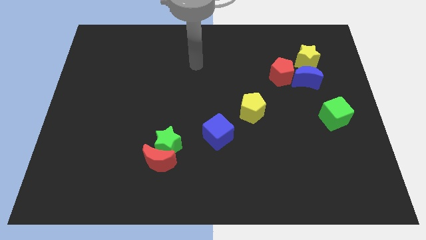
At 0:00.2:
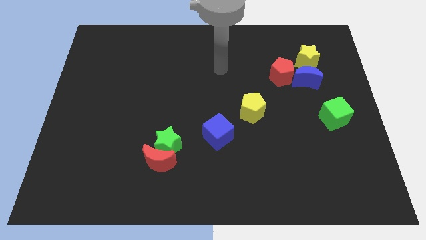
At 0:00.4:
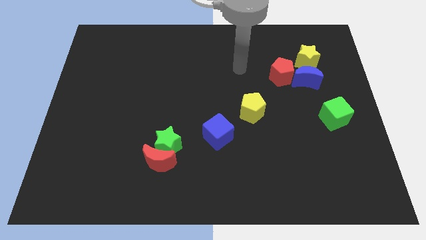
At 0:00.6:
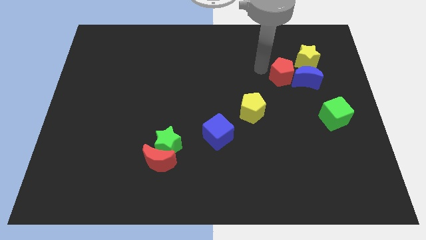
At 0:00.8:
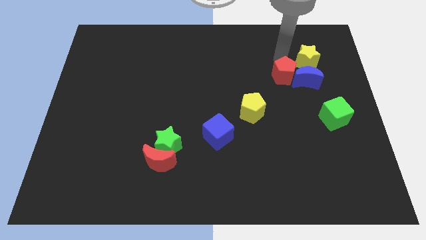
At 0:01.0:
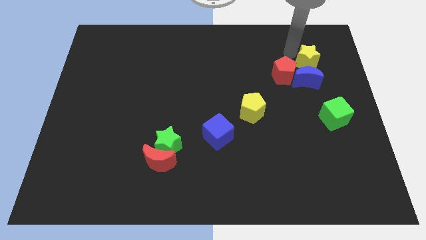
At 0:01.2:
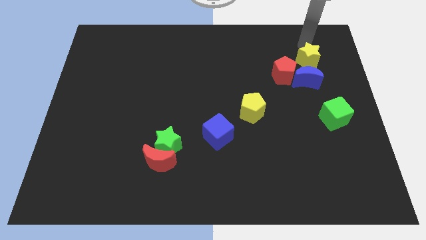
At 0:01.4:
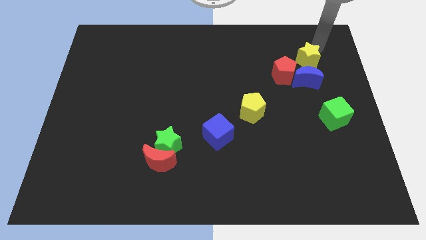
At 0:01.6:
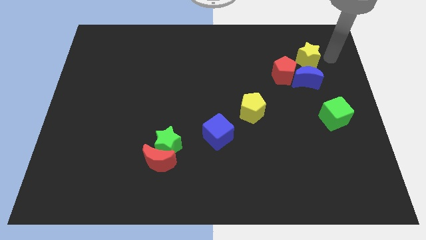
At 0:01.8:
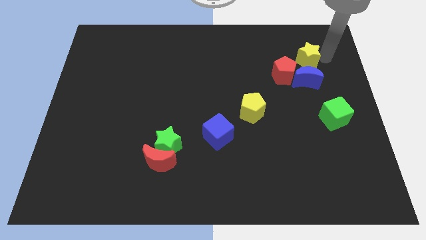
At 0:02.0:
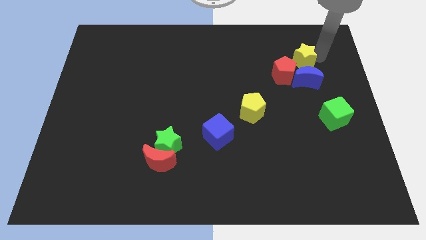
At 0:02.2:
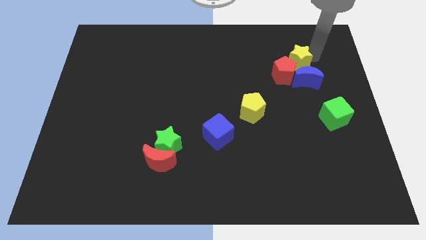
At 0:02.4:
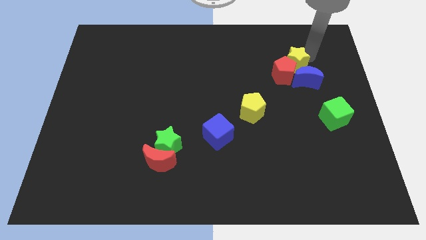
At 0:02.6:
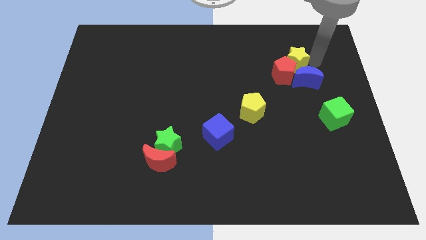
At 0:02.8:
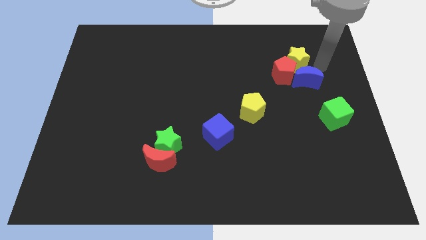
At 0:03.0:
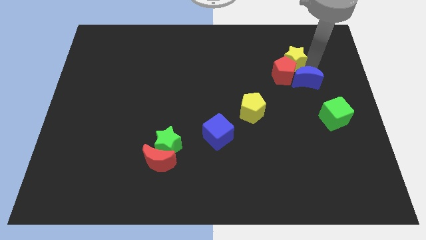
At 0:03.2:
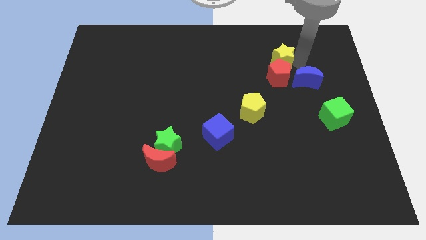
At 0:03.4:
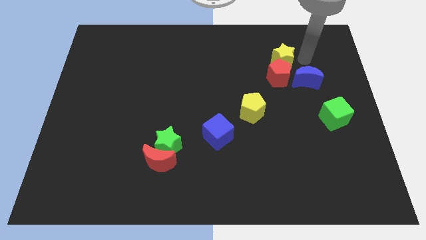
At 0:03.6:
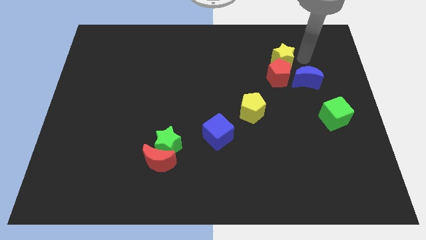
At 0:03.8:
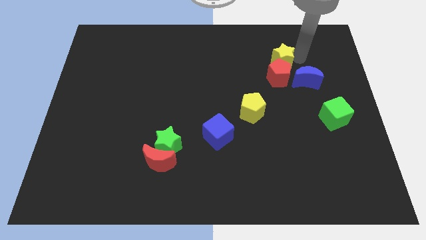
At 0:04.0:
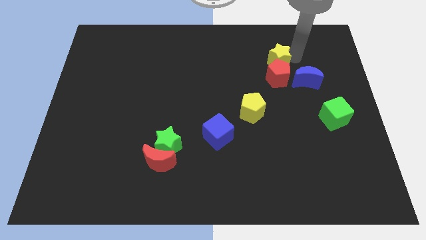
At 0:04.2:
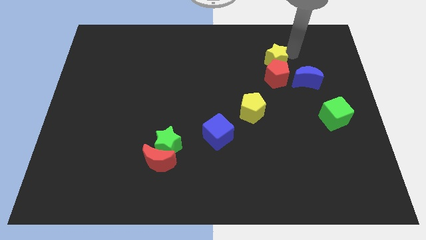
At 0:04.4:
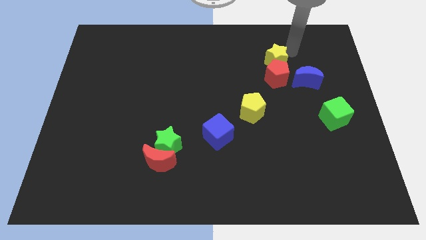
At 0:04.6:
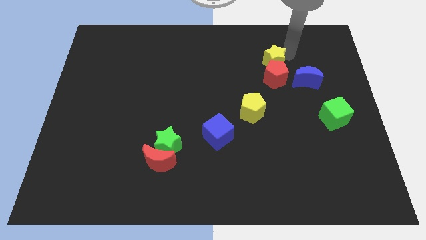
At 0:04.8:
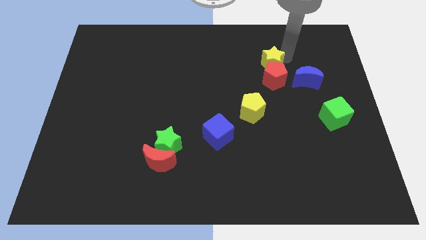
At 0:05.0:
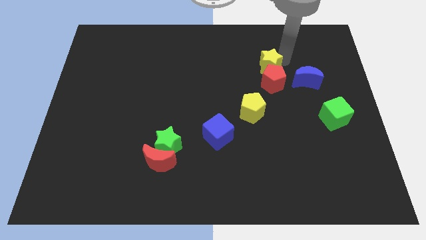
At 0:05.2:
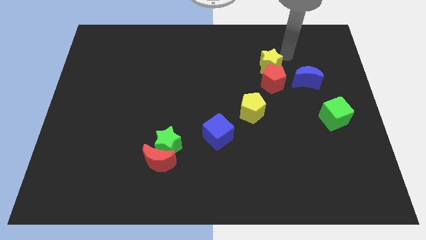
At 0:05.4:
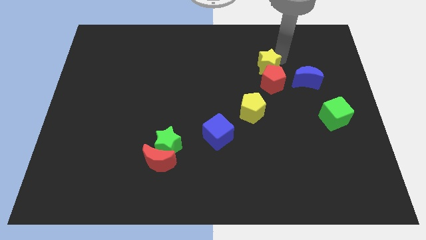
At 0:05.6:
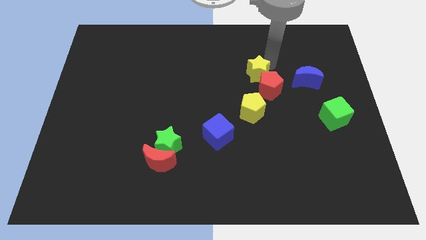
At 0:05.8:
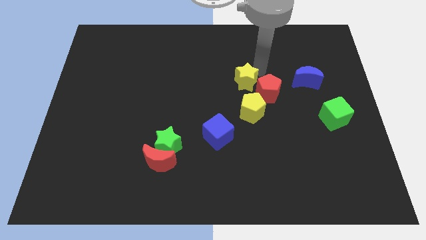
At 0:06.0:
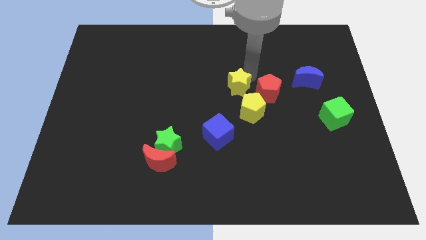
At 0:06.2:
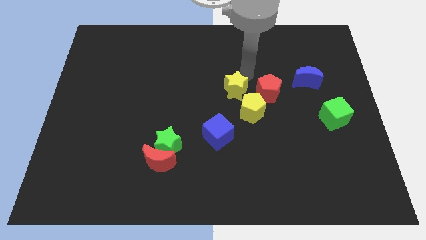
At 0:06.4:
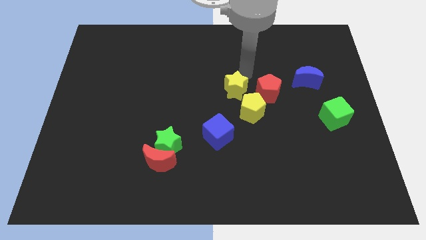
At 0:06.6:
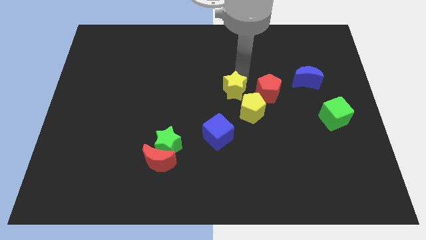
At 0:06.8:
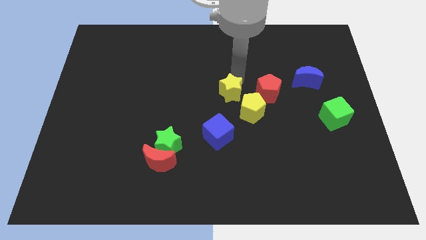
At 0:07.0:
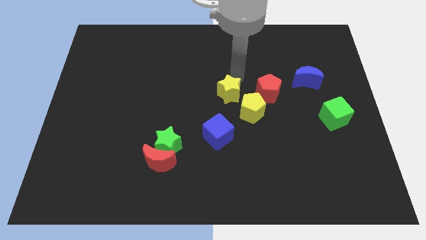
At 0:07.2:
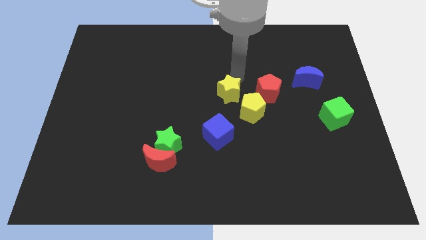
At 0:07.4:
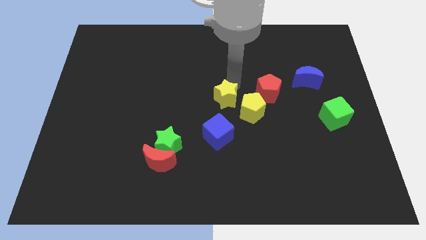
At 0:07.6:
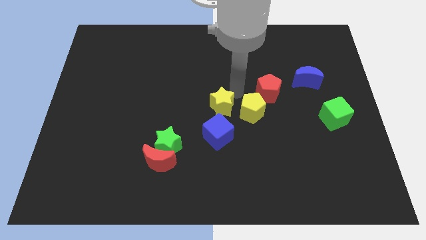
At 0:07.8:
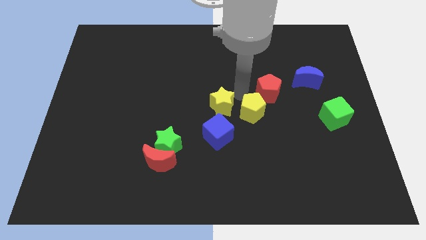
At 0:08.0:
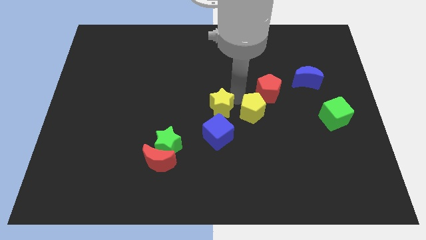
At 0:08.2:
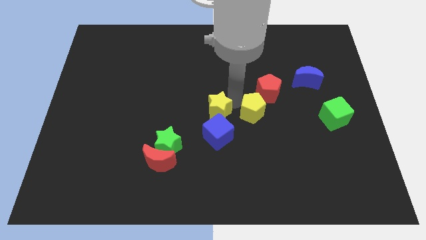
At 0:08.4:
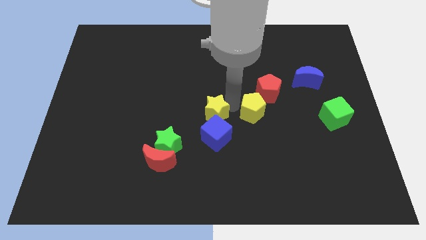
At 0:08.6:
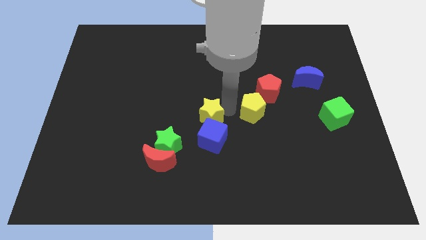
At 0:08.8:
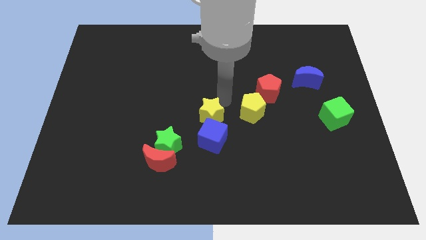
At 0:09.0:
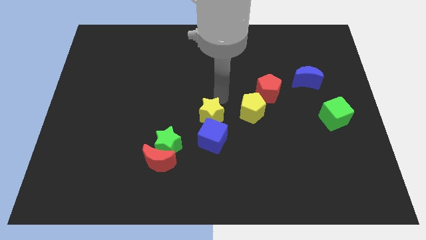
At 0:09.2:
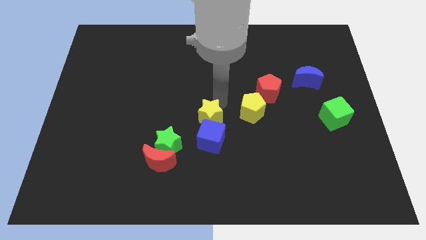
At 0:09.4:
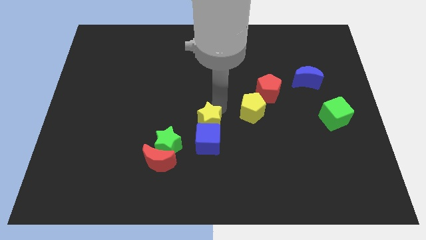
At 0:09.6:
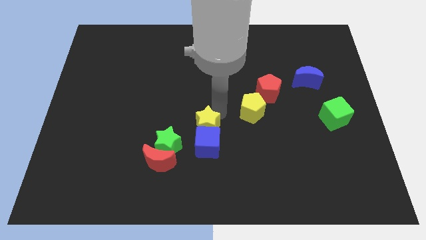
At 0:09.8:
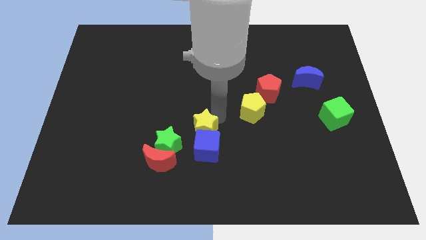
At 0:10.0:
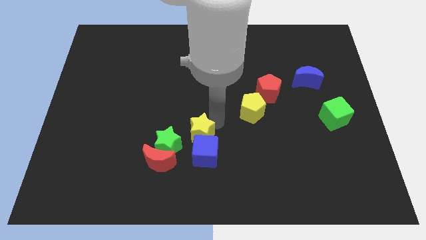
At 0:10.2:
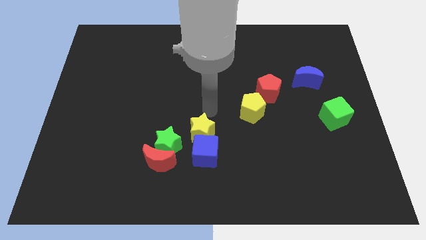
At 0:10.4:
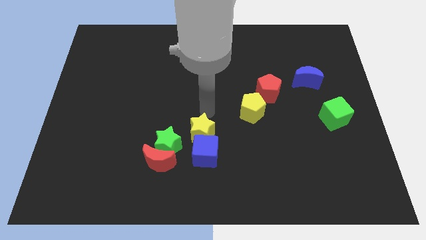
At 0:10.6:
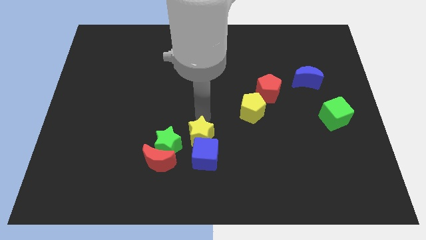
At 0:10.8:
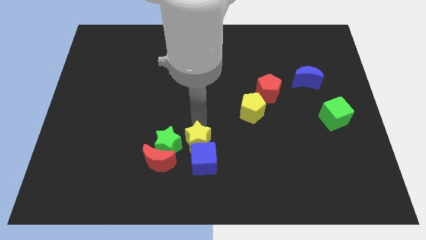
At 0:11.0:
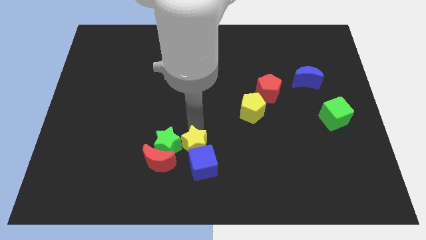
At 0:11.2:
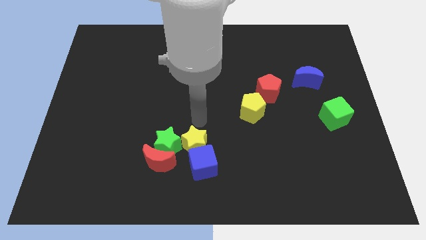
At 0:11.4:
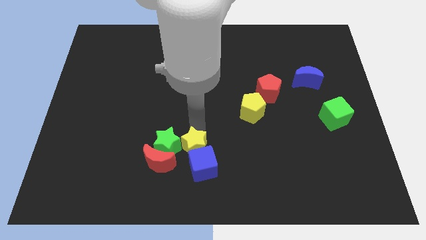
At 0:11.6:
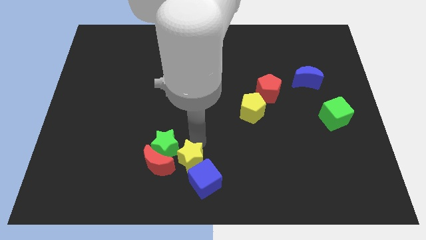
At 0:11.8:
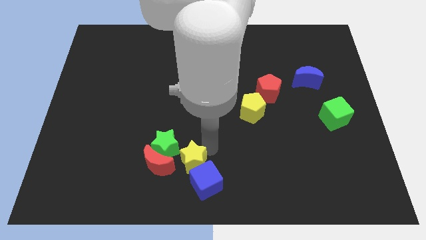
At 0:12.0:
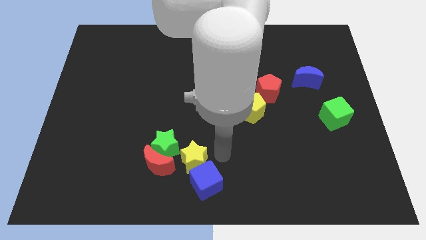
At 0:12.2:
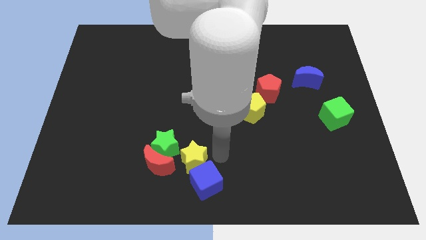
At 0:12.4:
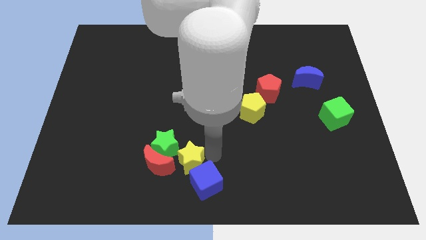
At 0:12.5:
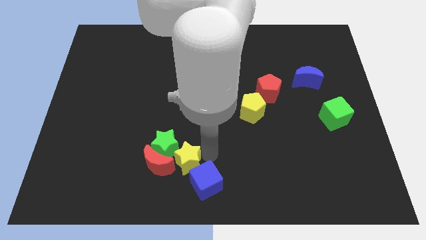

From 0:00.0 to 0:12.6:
move the yellow star close to the red moon

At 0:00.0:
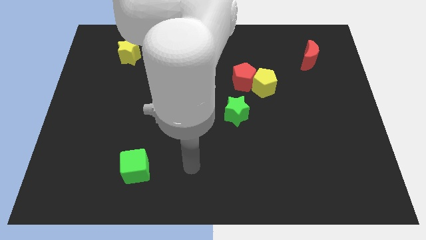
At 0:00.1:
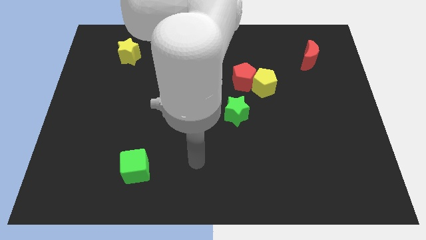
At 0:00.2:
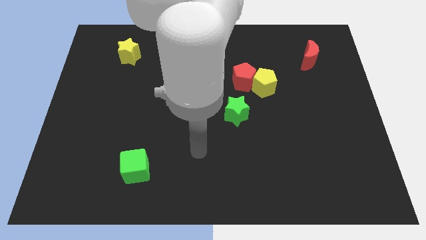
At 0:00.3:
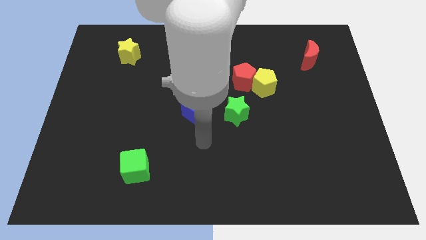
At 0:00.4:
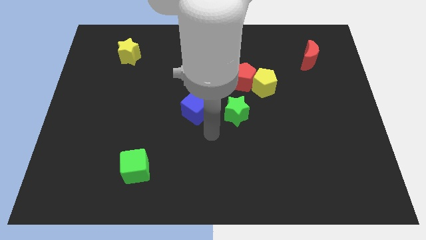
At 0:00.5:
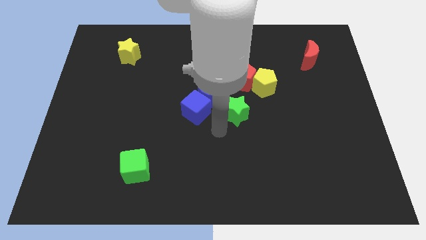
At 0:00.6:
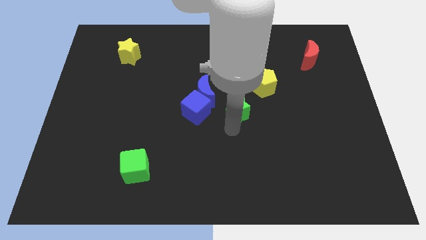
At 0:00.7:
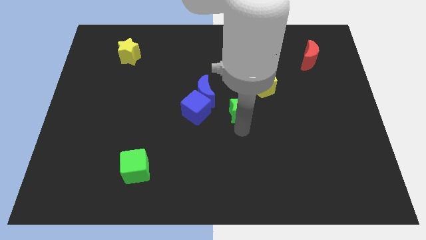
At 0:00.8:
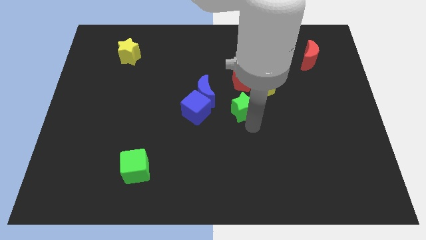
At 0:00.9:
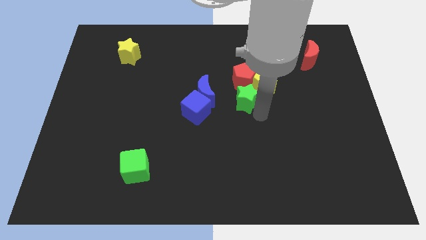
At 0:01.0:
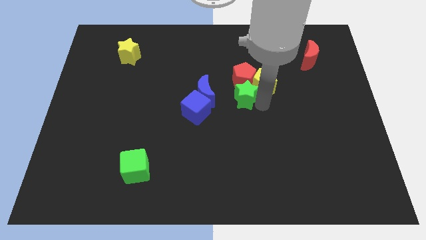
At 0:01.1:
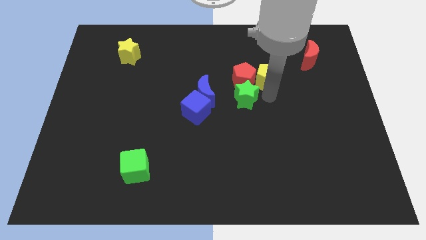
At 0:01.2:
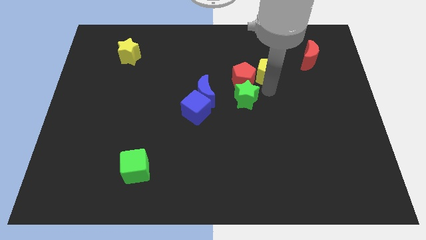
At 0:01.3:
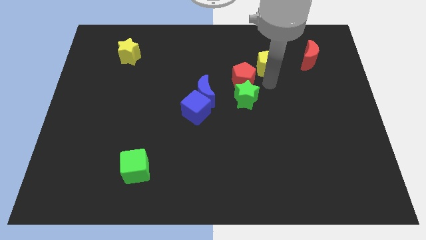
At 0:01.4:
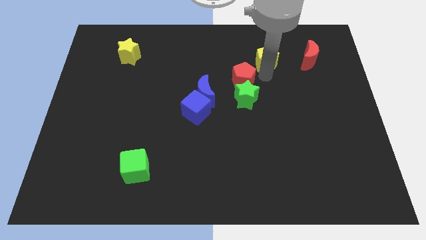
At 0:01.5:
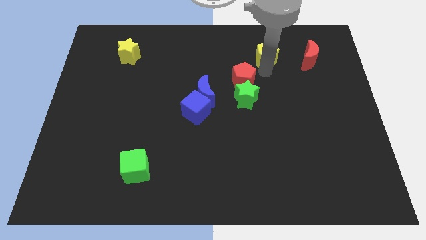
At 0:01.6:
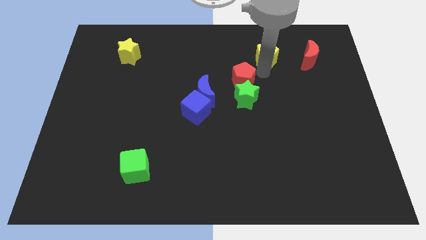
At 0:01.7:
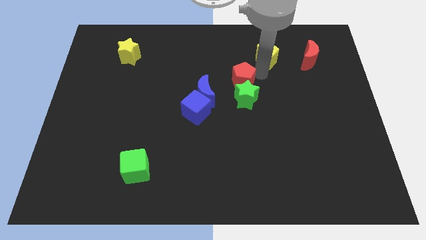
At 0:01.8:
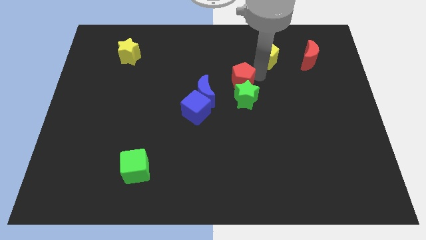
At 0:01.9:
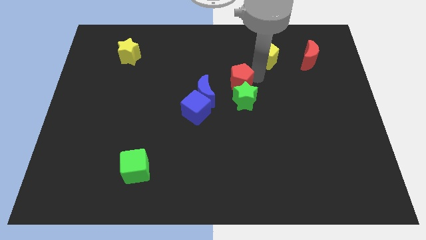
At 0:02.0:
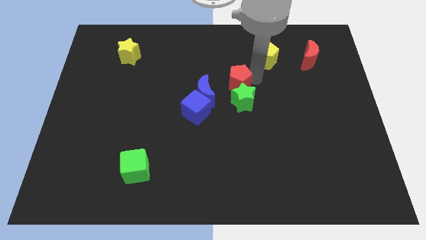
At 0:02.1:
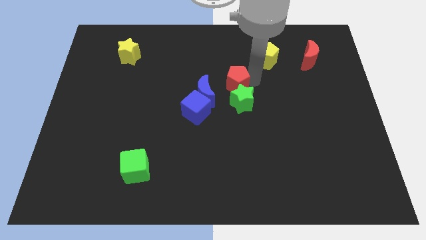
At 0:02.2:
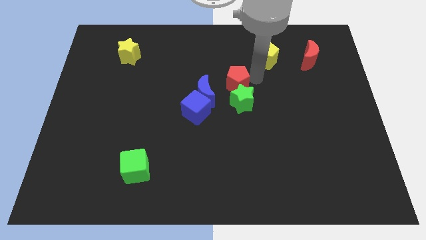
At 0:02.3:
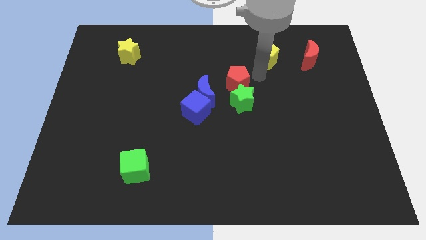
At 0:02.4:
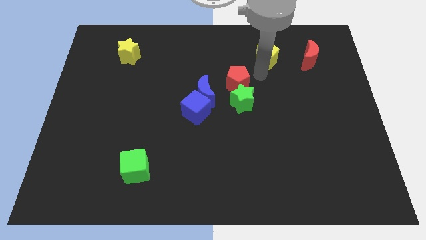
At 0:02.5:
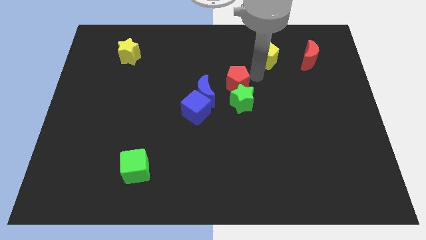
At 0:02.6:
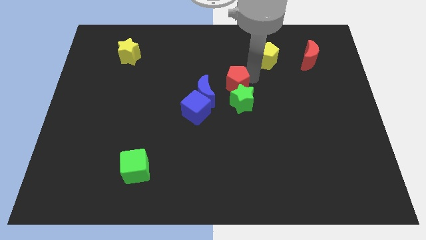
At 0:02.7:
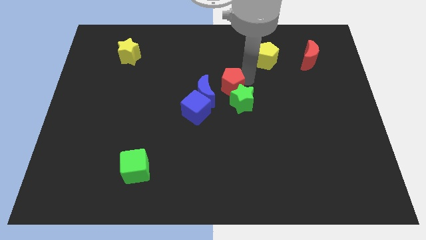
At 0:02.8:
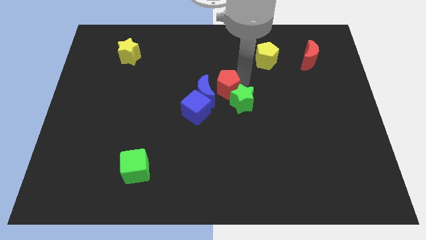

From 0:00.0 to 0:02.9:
move the red pentagon towards the blue moon
